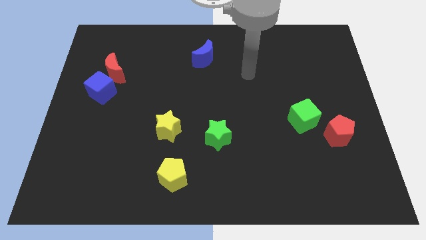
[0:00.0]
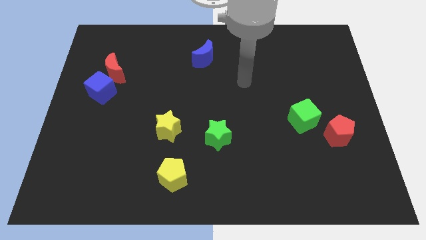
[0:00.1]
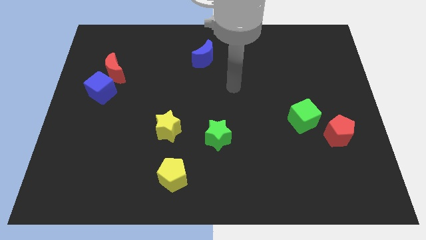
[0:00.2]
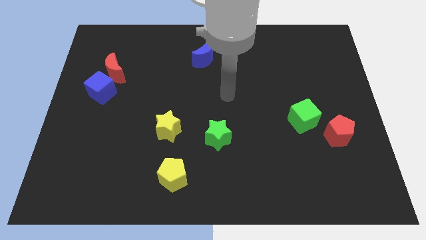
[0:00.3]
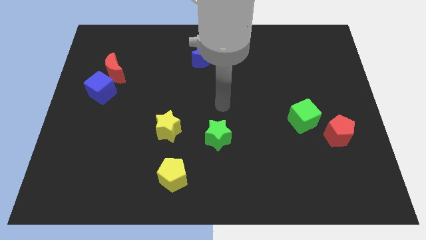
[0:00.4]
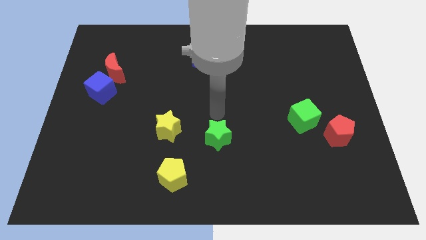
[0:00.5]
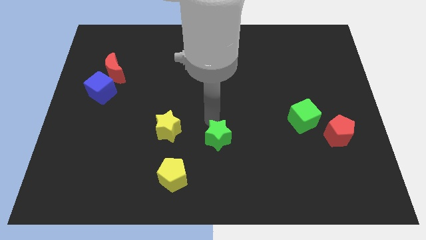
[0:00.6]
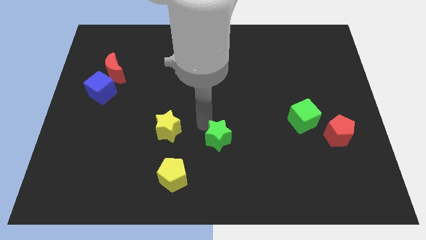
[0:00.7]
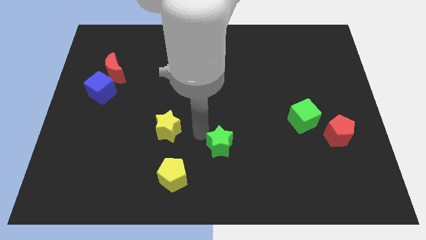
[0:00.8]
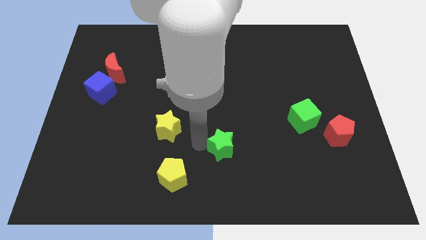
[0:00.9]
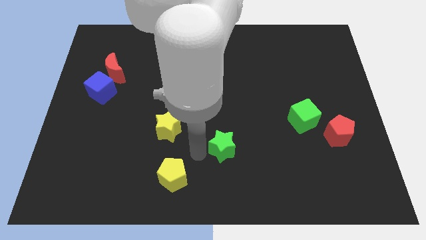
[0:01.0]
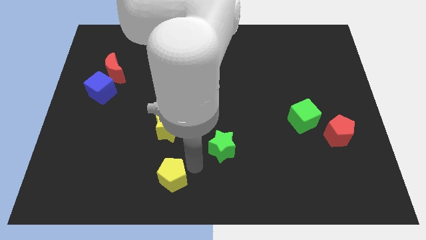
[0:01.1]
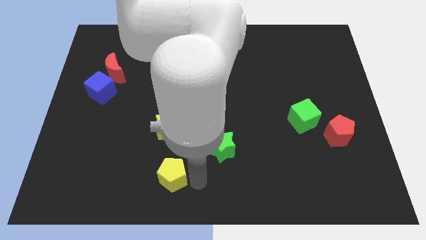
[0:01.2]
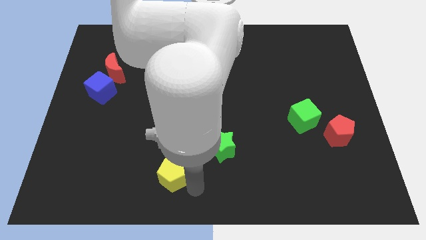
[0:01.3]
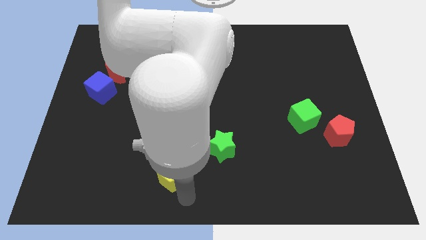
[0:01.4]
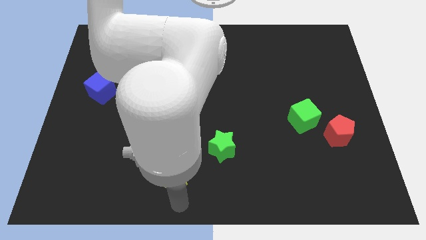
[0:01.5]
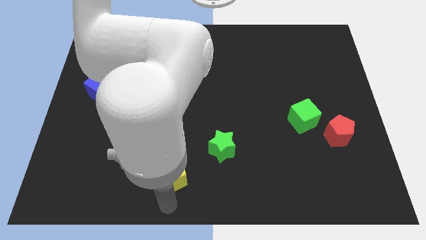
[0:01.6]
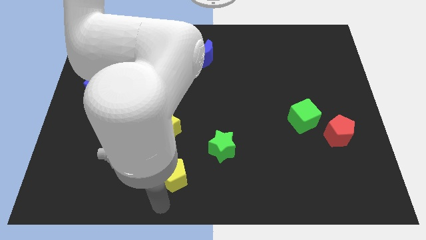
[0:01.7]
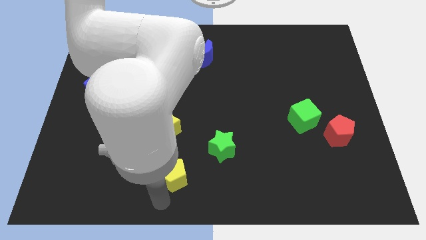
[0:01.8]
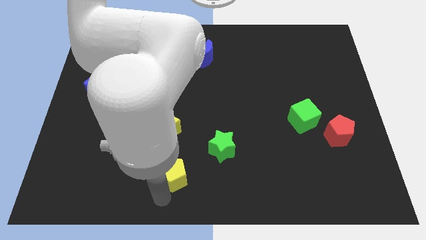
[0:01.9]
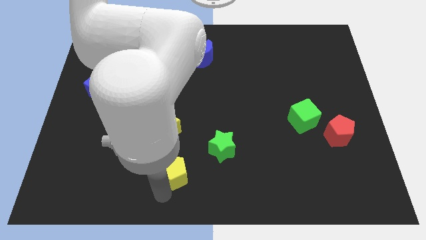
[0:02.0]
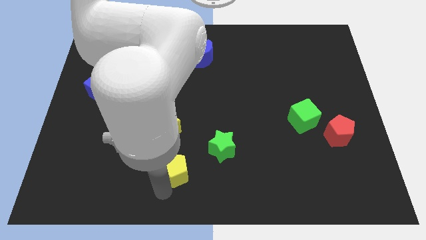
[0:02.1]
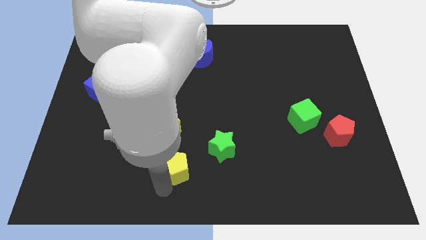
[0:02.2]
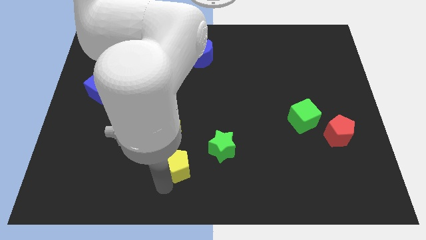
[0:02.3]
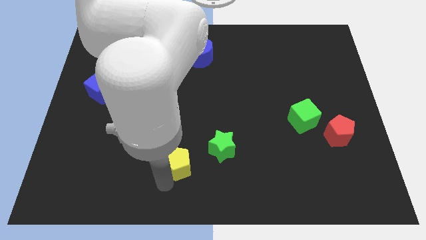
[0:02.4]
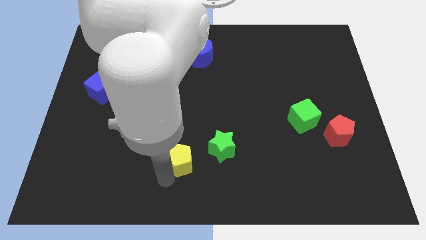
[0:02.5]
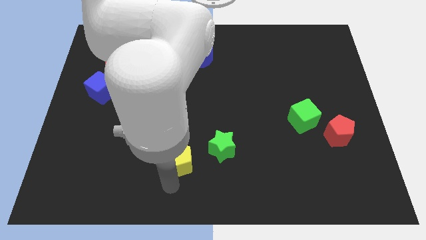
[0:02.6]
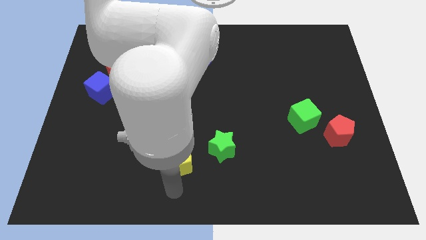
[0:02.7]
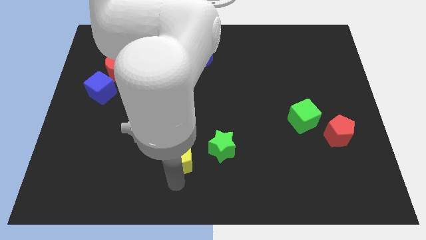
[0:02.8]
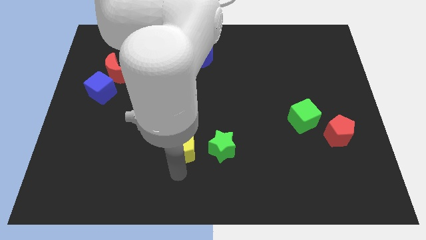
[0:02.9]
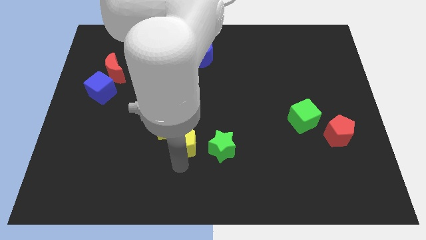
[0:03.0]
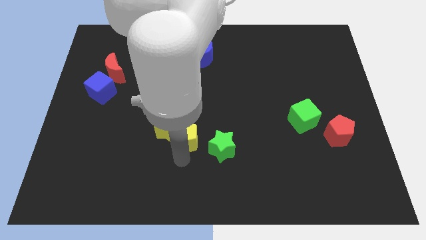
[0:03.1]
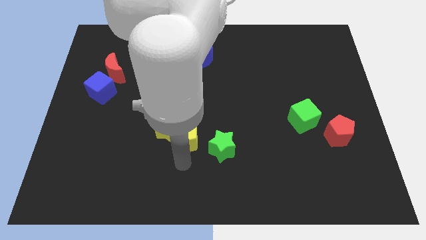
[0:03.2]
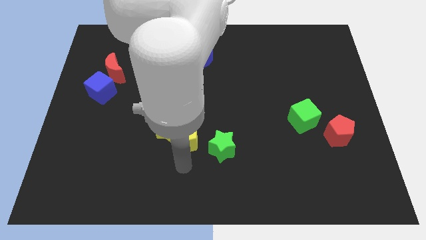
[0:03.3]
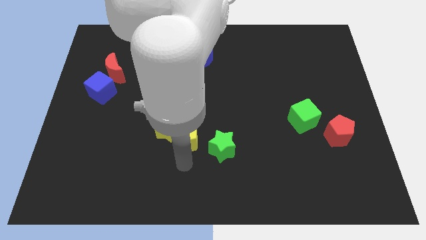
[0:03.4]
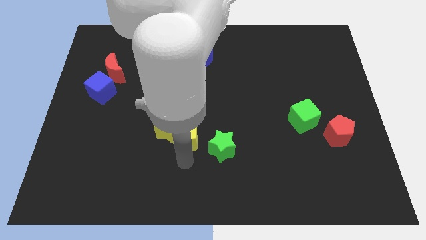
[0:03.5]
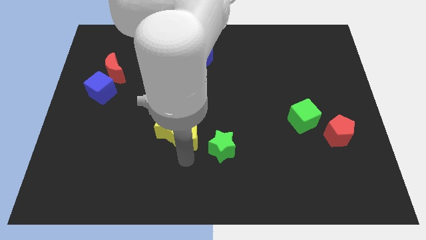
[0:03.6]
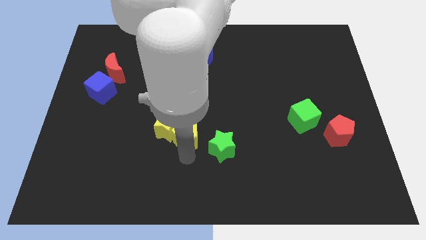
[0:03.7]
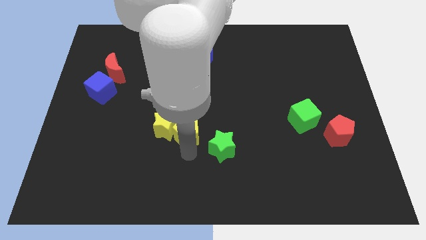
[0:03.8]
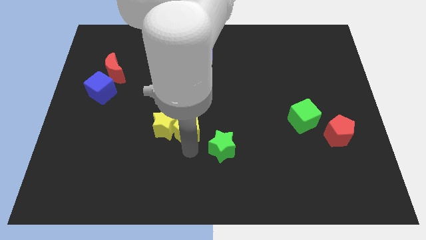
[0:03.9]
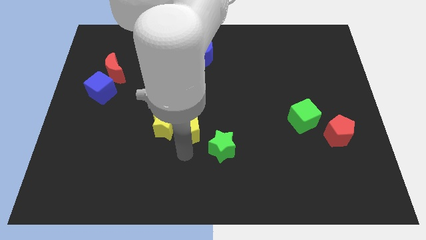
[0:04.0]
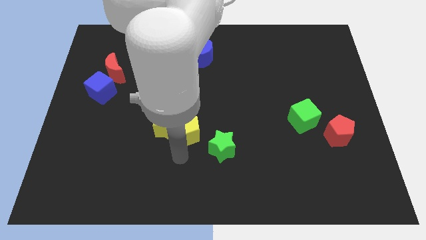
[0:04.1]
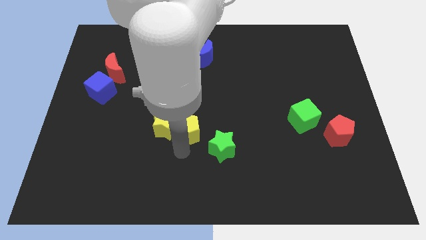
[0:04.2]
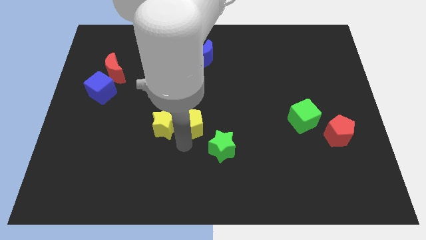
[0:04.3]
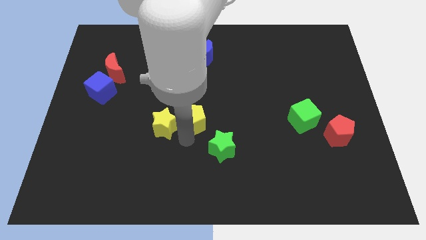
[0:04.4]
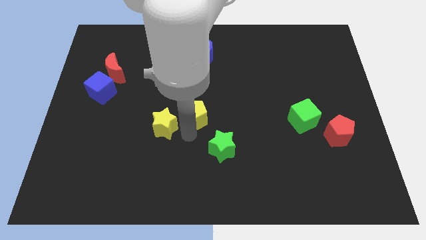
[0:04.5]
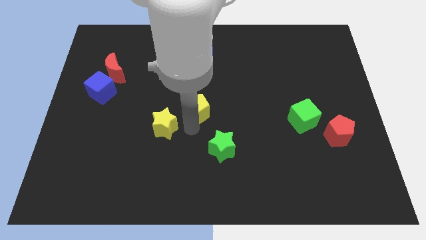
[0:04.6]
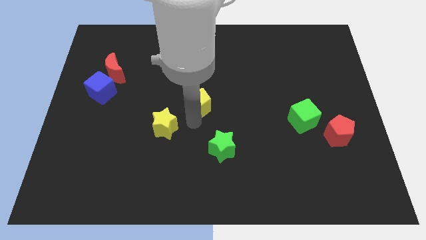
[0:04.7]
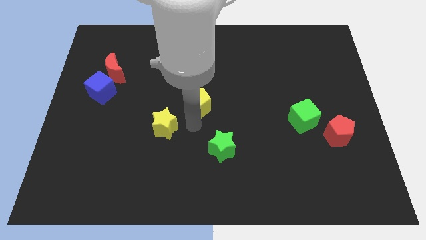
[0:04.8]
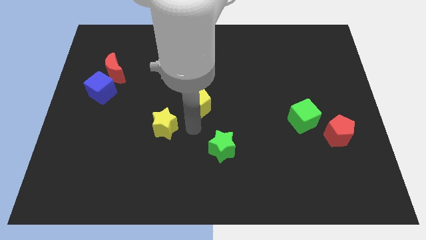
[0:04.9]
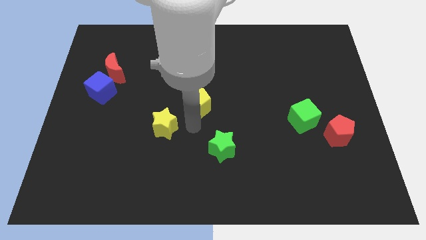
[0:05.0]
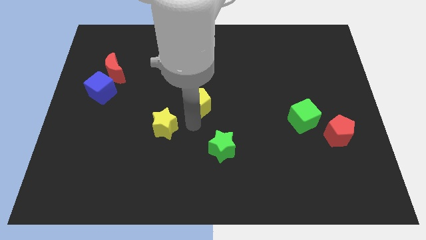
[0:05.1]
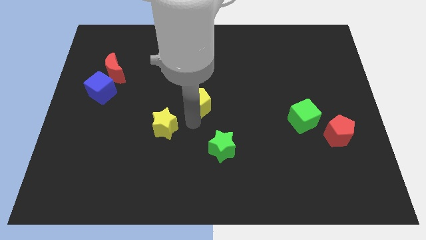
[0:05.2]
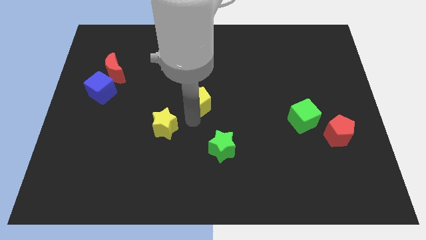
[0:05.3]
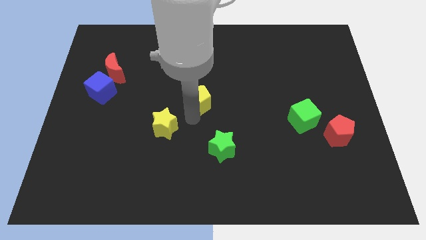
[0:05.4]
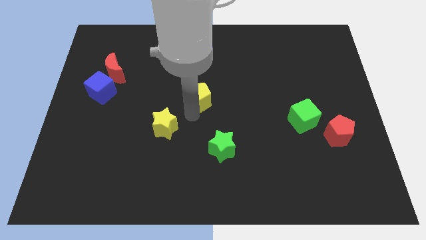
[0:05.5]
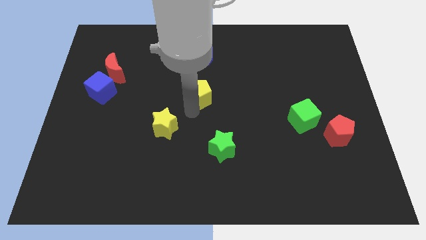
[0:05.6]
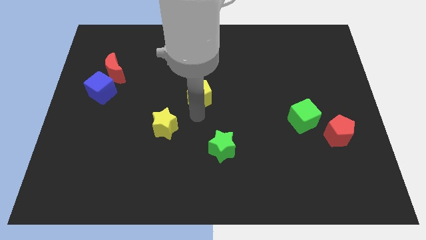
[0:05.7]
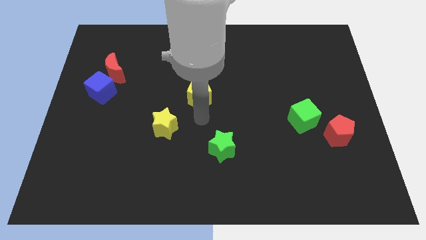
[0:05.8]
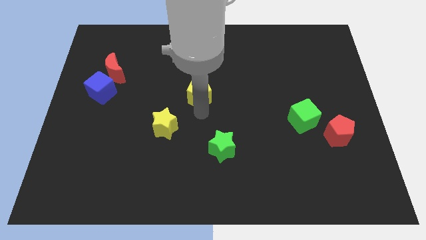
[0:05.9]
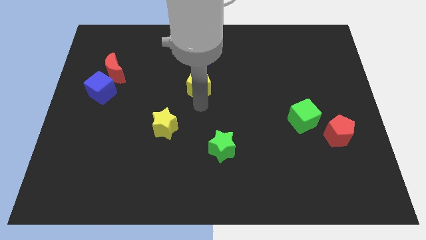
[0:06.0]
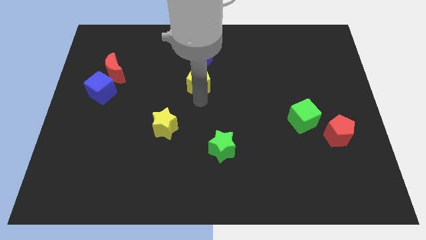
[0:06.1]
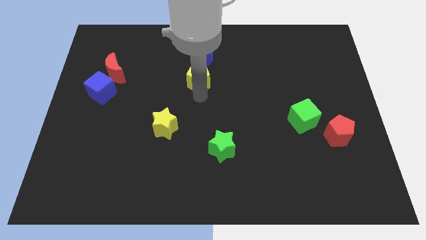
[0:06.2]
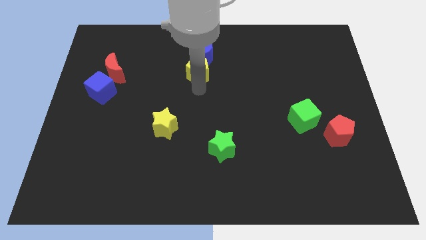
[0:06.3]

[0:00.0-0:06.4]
slide the yellow pentagon close to the blue moon

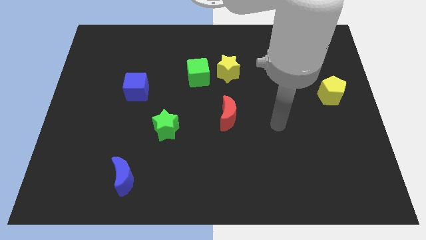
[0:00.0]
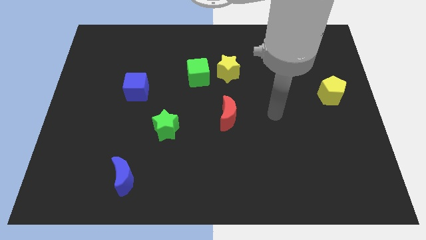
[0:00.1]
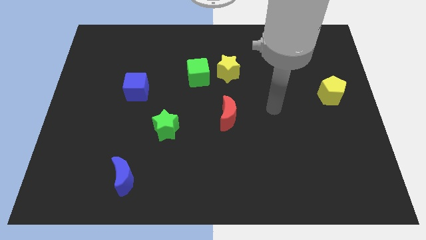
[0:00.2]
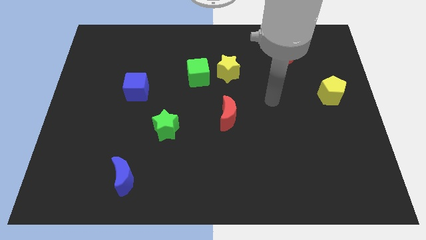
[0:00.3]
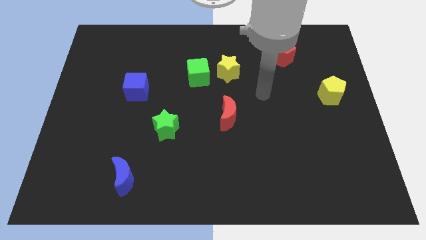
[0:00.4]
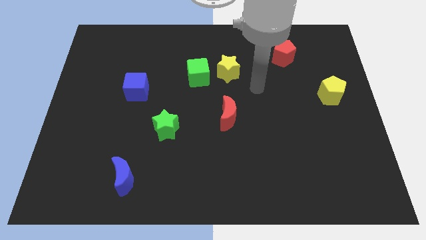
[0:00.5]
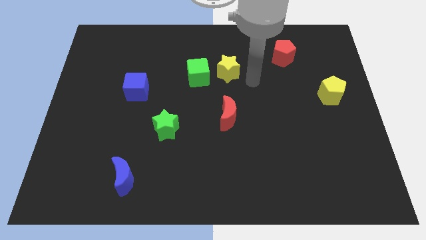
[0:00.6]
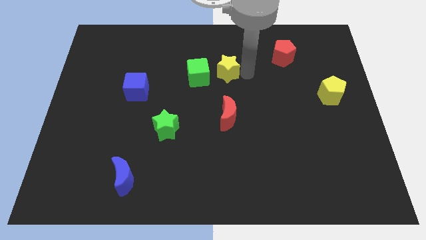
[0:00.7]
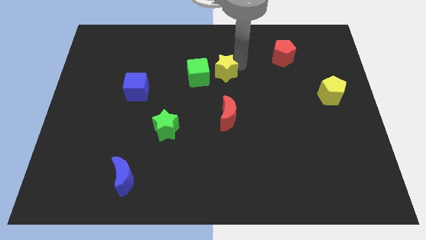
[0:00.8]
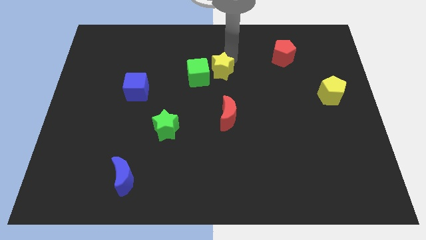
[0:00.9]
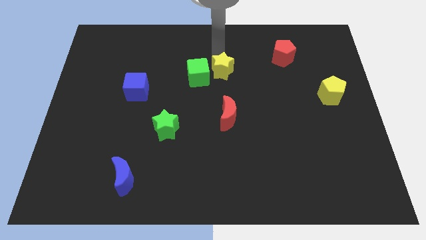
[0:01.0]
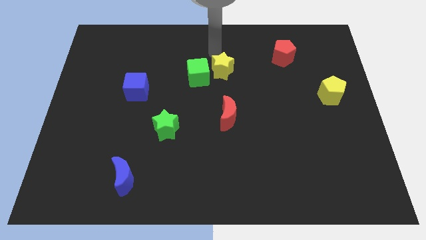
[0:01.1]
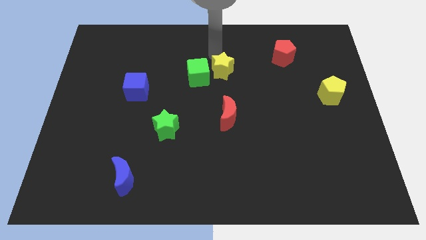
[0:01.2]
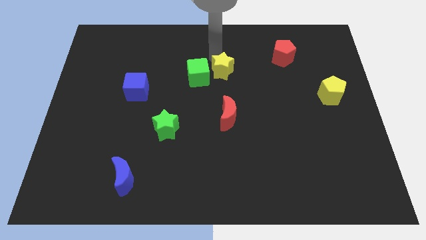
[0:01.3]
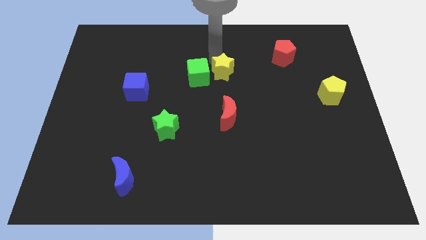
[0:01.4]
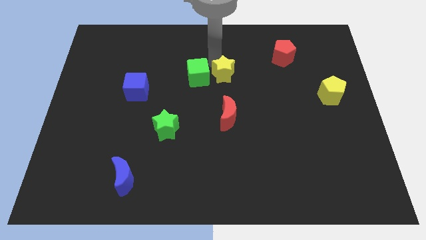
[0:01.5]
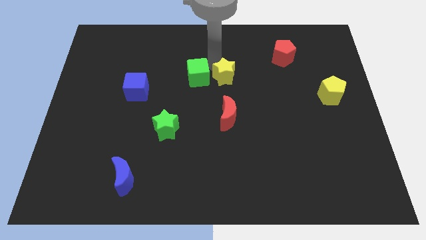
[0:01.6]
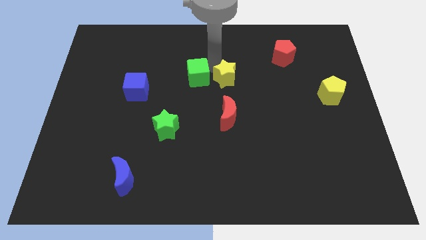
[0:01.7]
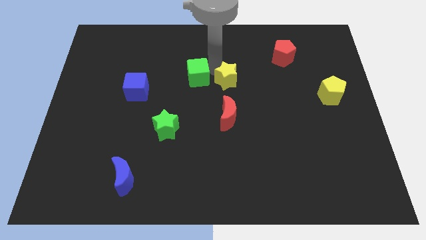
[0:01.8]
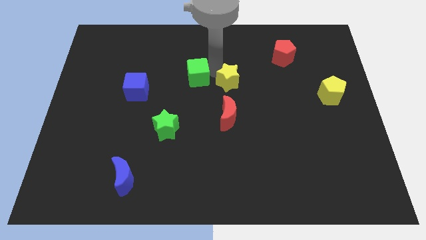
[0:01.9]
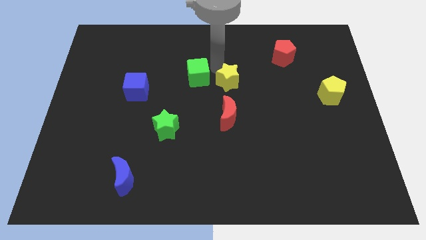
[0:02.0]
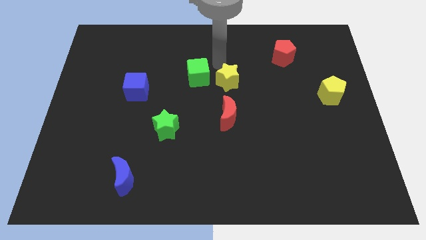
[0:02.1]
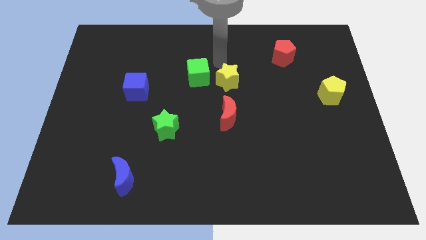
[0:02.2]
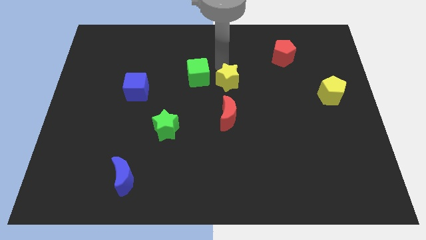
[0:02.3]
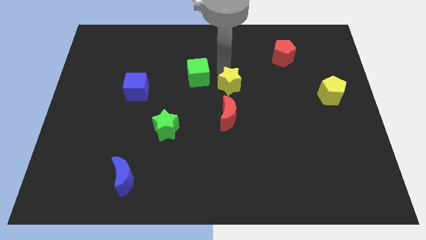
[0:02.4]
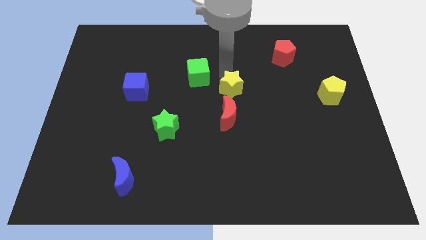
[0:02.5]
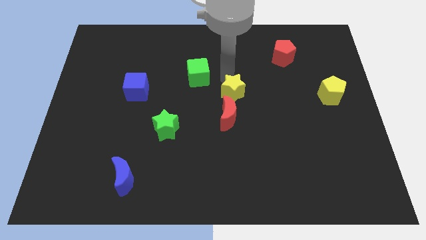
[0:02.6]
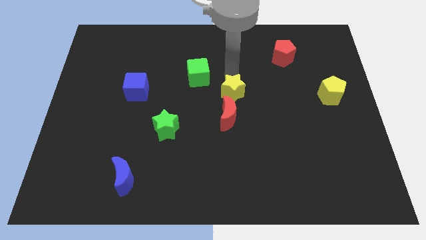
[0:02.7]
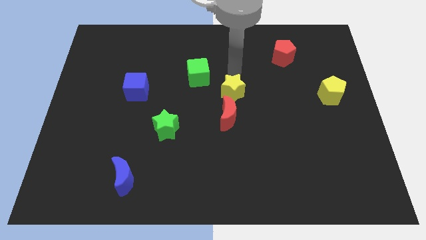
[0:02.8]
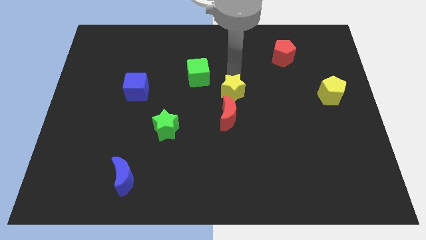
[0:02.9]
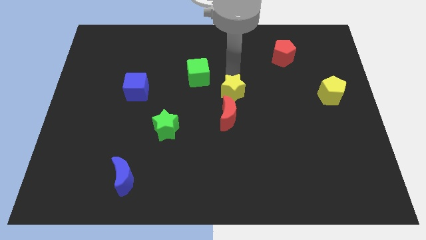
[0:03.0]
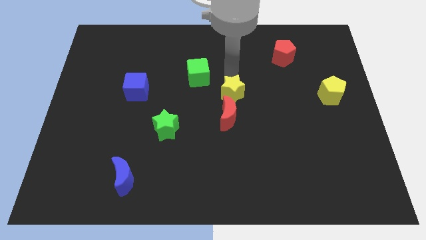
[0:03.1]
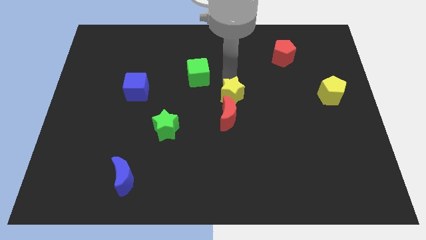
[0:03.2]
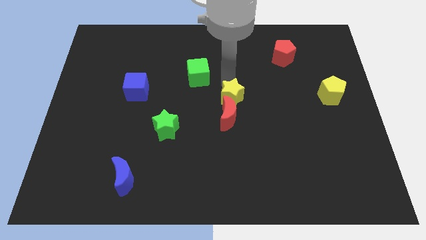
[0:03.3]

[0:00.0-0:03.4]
push the yellow star close to the red moon
